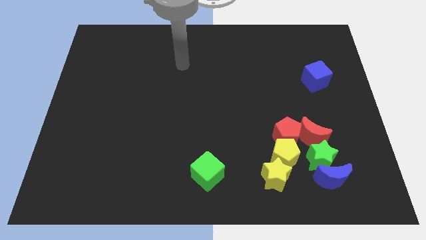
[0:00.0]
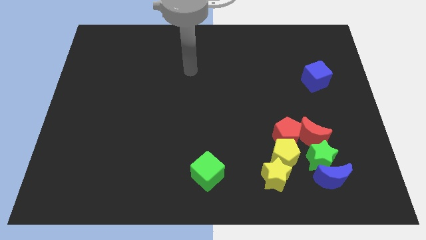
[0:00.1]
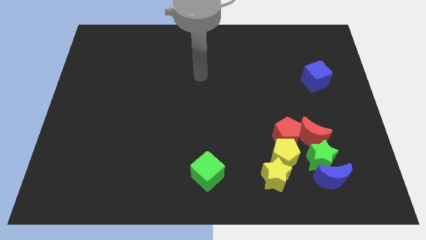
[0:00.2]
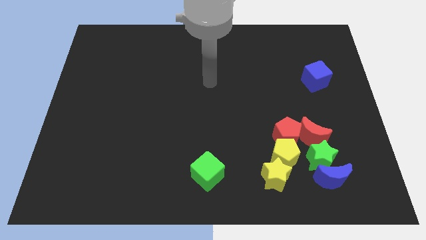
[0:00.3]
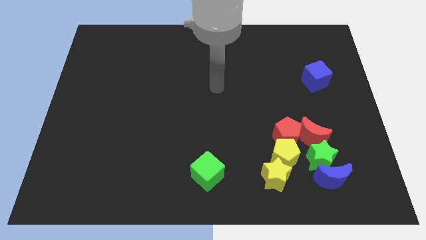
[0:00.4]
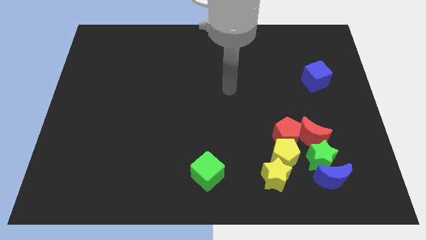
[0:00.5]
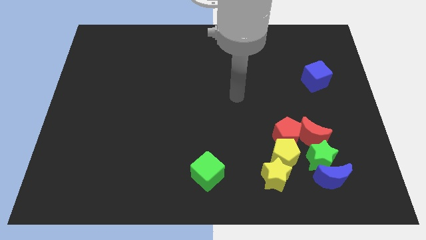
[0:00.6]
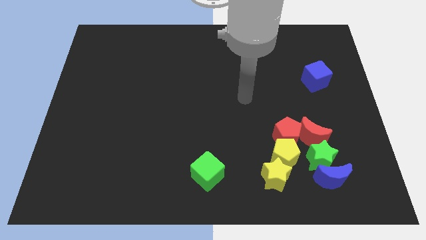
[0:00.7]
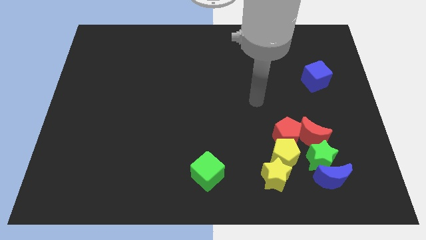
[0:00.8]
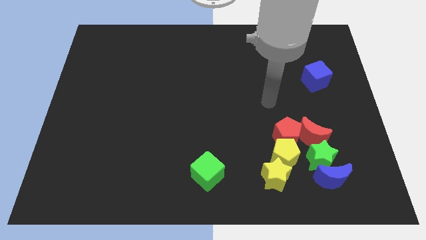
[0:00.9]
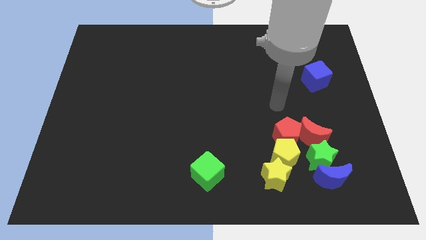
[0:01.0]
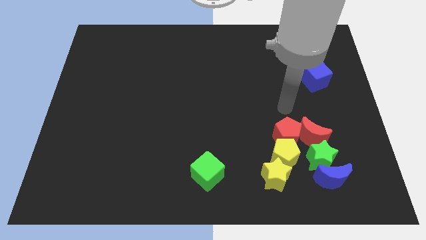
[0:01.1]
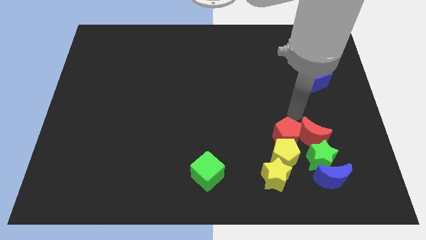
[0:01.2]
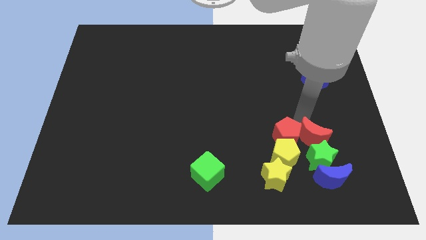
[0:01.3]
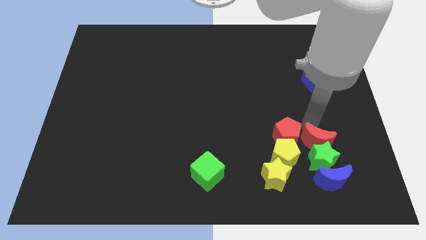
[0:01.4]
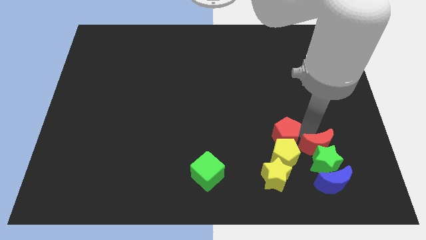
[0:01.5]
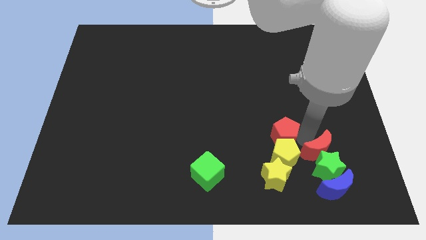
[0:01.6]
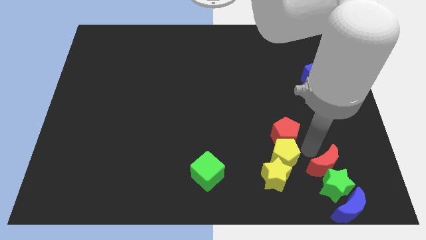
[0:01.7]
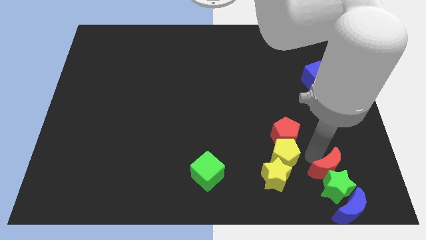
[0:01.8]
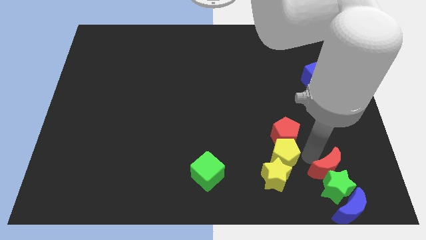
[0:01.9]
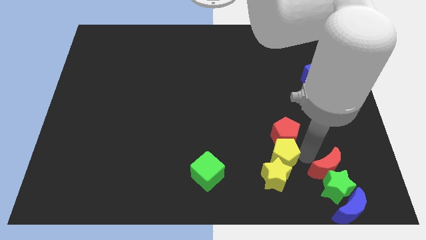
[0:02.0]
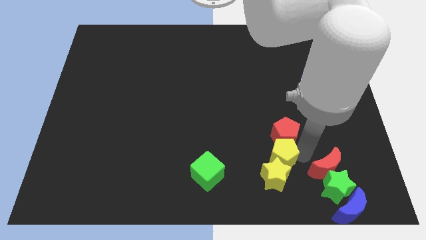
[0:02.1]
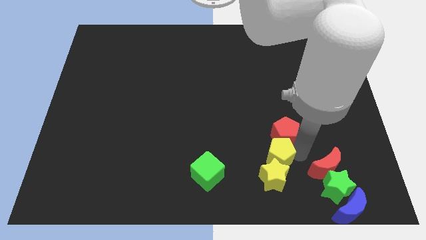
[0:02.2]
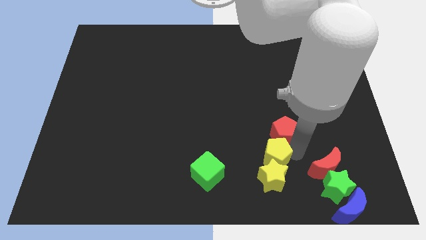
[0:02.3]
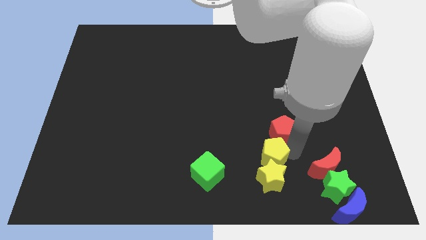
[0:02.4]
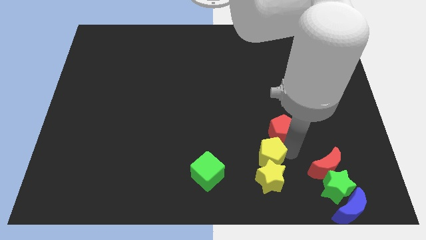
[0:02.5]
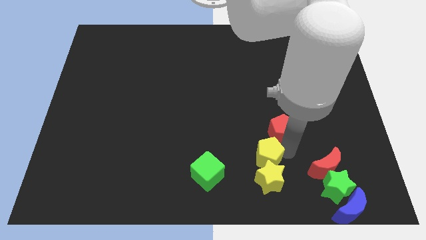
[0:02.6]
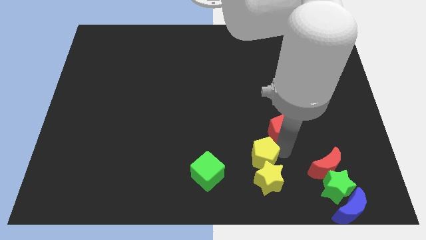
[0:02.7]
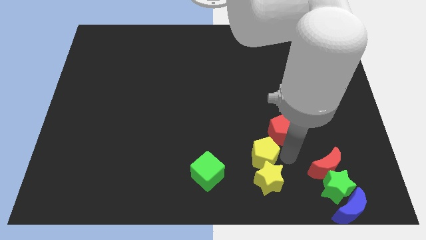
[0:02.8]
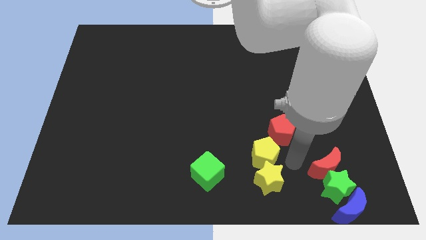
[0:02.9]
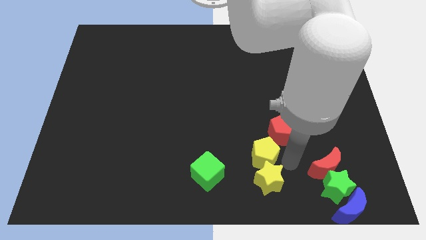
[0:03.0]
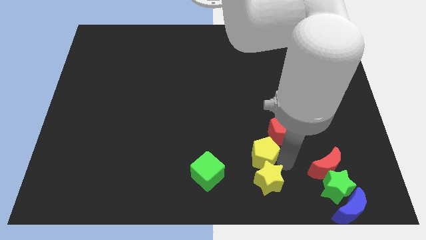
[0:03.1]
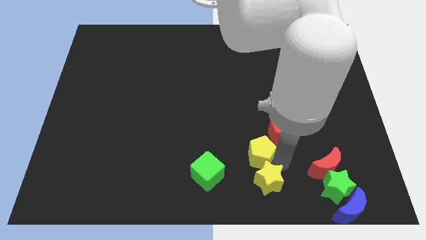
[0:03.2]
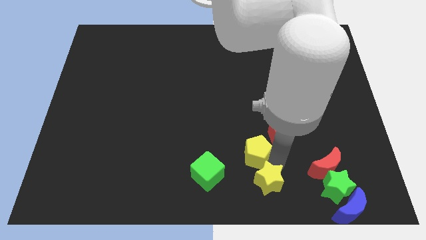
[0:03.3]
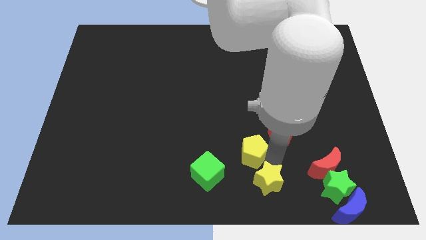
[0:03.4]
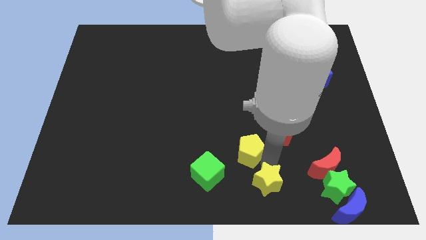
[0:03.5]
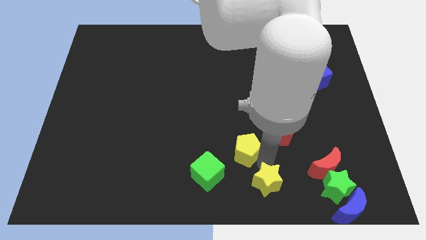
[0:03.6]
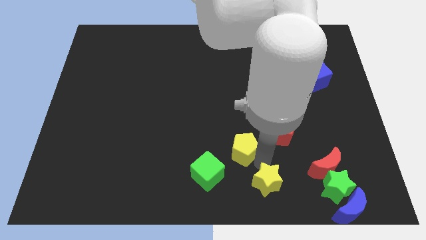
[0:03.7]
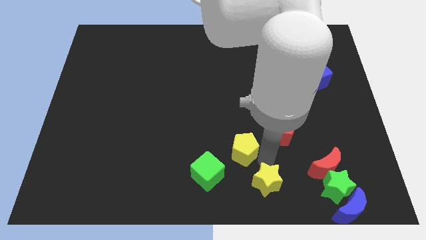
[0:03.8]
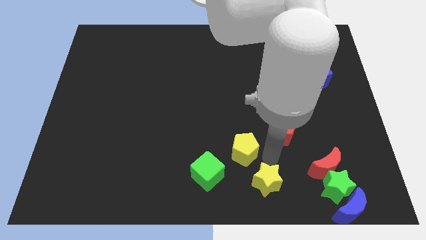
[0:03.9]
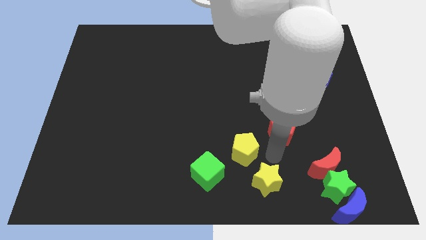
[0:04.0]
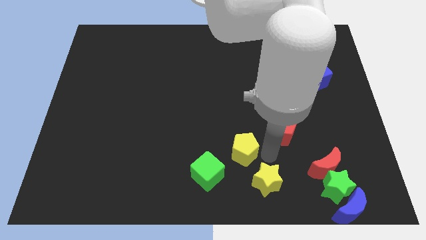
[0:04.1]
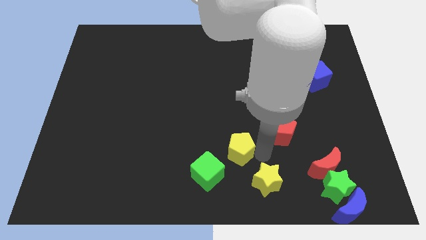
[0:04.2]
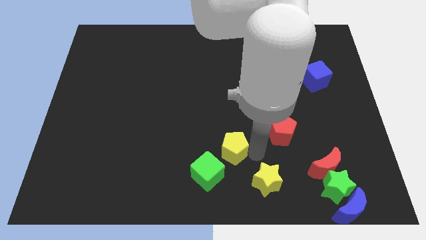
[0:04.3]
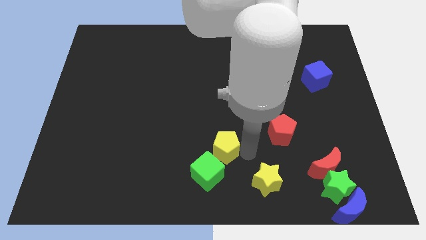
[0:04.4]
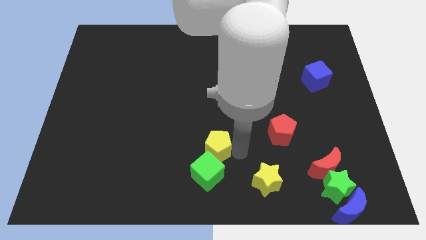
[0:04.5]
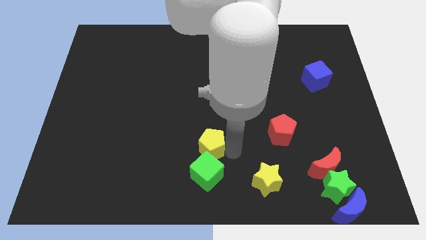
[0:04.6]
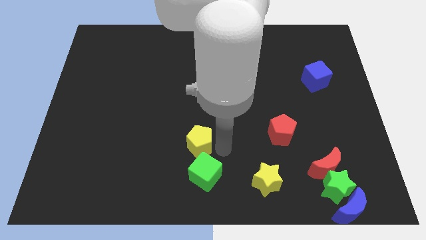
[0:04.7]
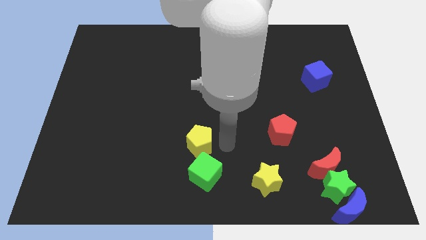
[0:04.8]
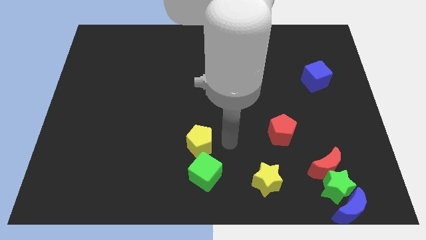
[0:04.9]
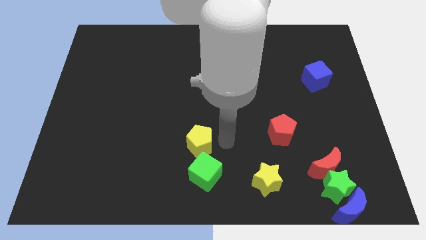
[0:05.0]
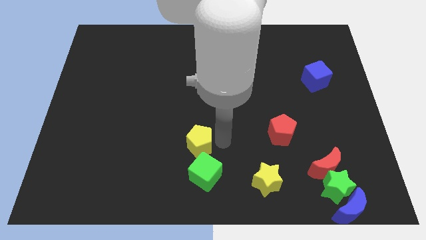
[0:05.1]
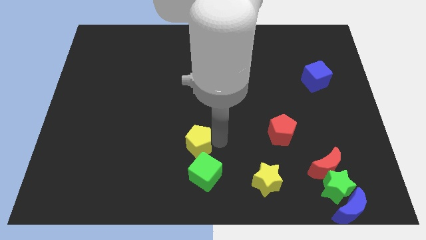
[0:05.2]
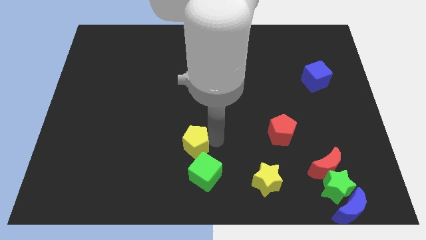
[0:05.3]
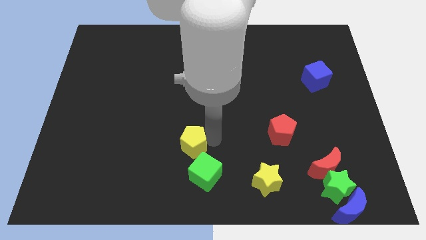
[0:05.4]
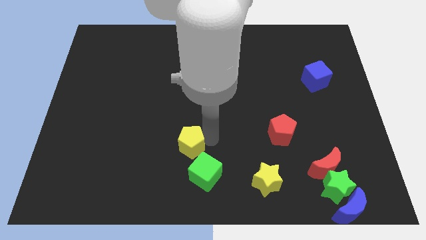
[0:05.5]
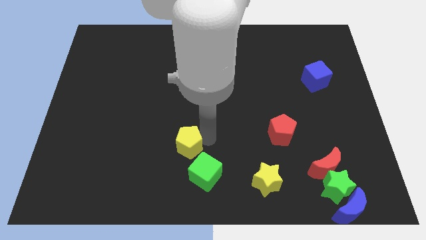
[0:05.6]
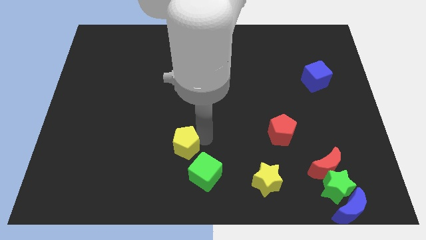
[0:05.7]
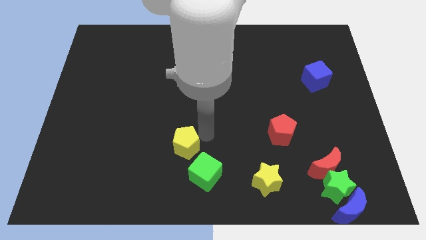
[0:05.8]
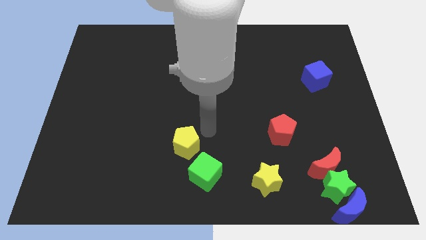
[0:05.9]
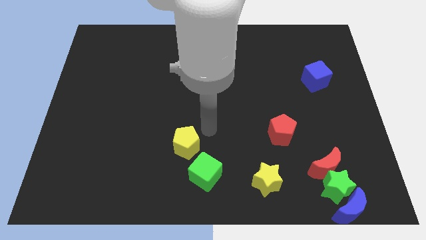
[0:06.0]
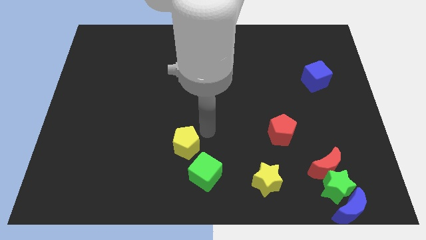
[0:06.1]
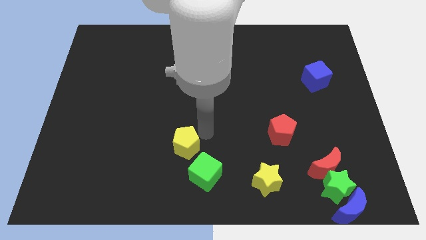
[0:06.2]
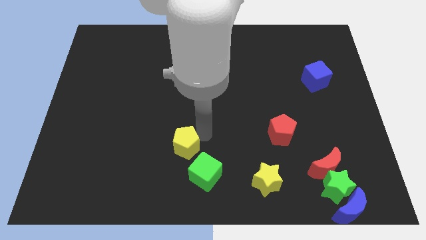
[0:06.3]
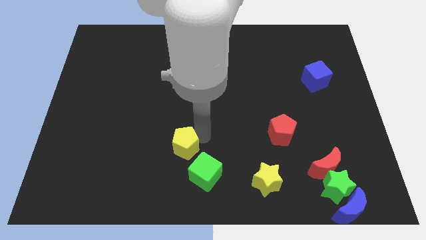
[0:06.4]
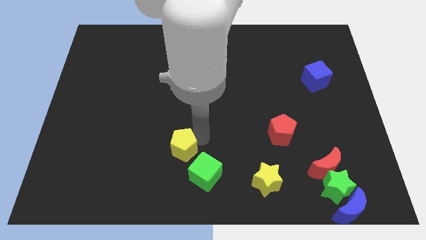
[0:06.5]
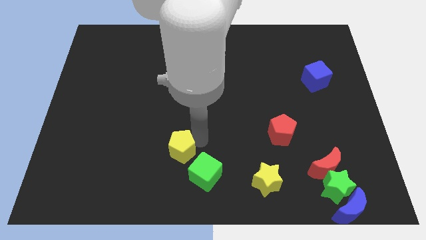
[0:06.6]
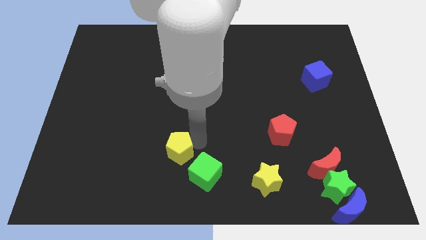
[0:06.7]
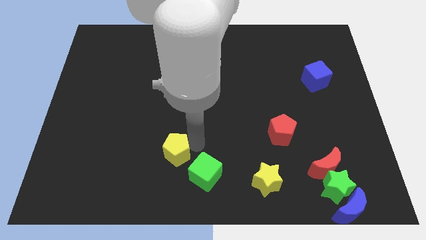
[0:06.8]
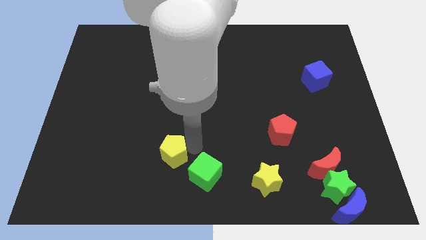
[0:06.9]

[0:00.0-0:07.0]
slide the yellow pentagon to the left side of the green cube
